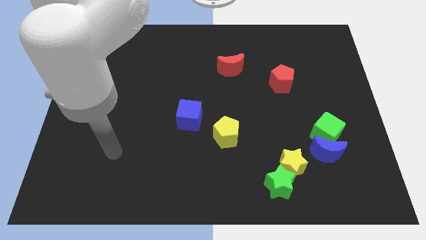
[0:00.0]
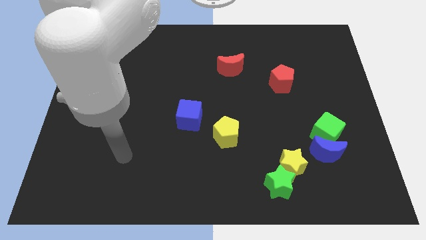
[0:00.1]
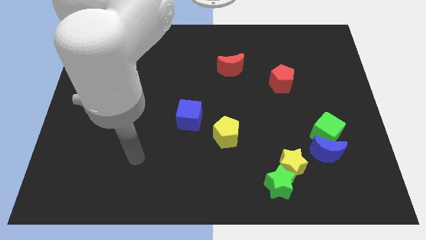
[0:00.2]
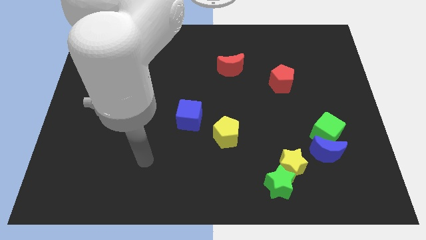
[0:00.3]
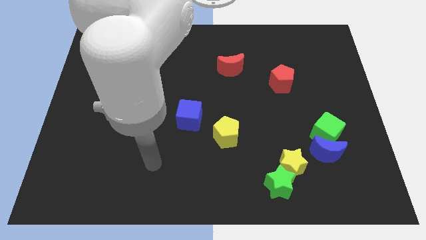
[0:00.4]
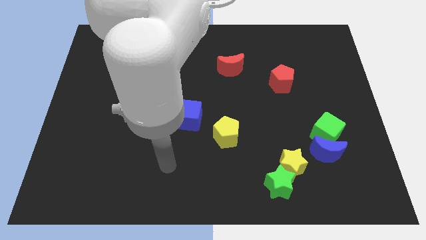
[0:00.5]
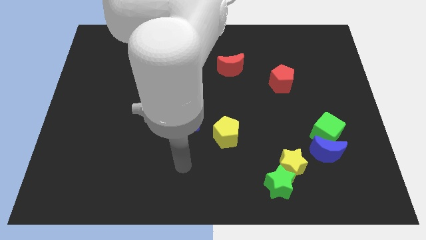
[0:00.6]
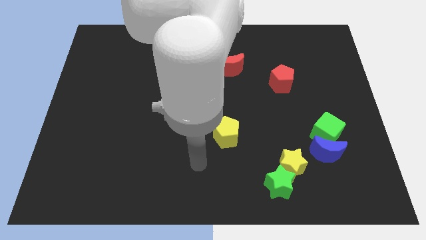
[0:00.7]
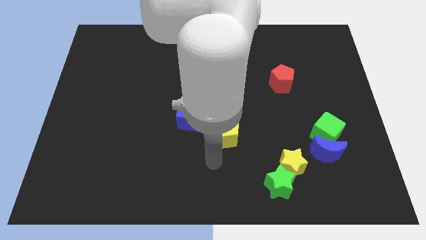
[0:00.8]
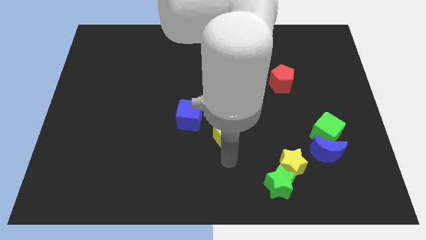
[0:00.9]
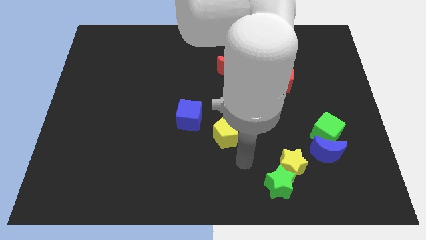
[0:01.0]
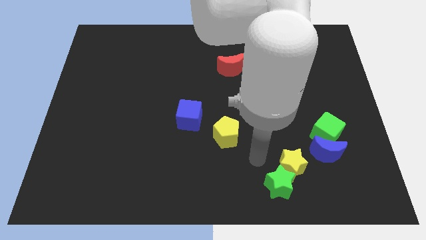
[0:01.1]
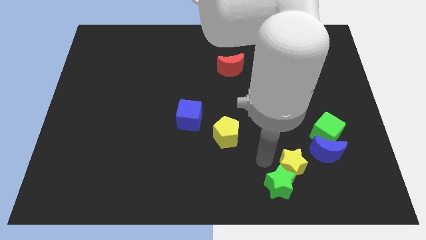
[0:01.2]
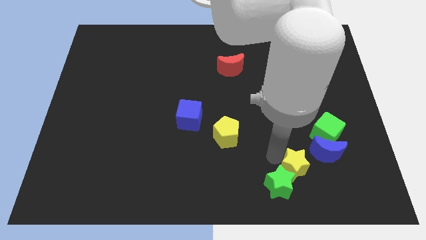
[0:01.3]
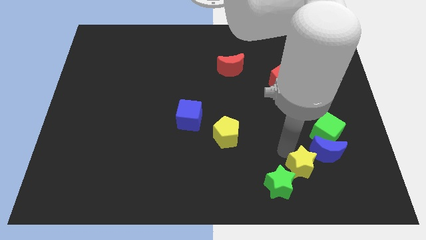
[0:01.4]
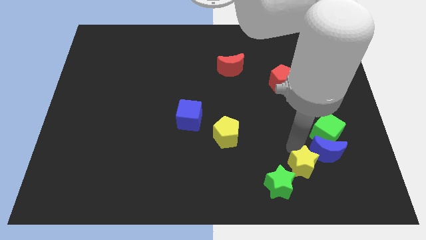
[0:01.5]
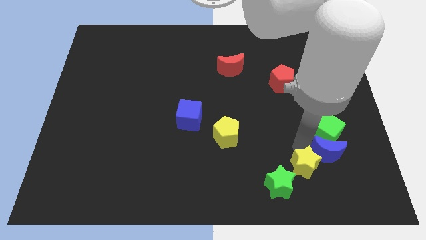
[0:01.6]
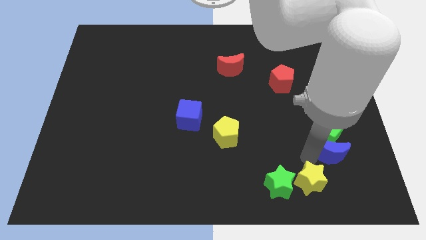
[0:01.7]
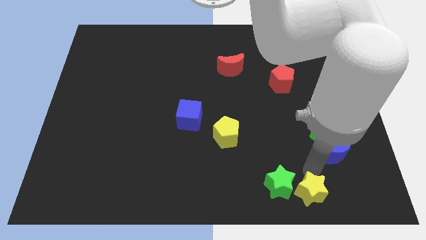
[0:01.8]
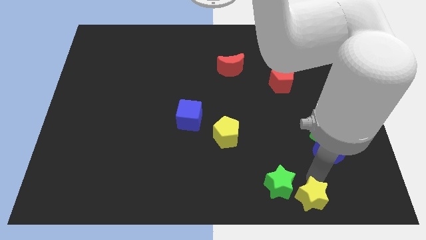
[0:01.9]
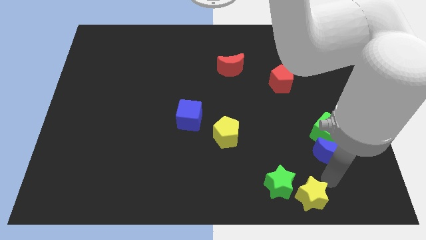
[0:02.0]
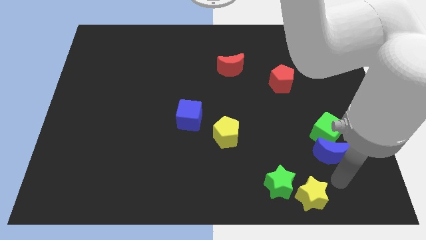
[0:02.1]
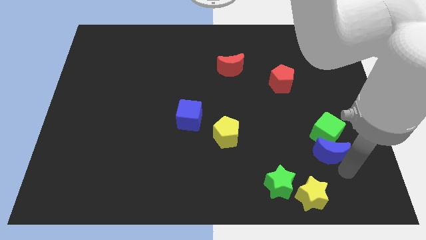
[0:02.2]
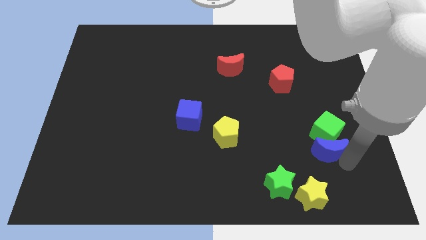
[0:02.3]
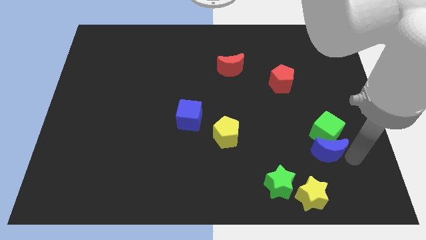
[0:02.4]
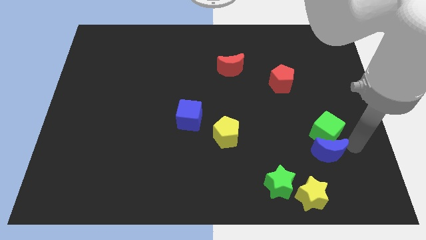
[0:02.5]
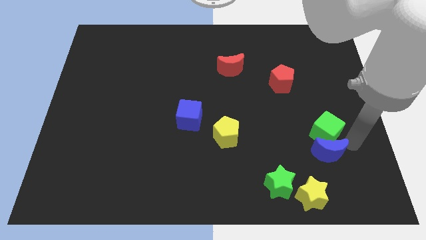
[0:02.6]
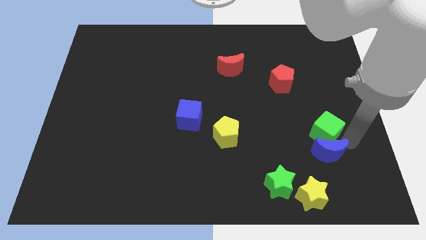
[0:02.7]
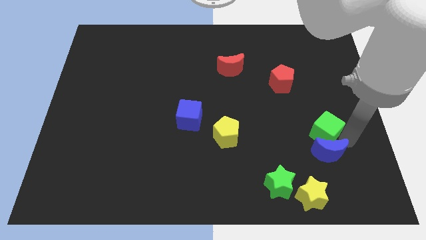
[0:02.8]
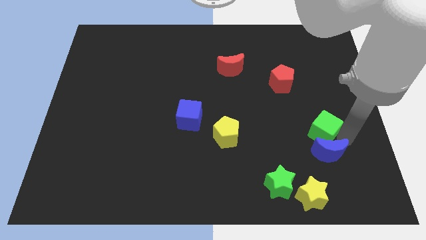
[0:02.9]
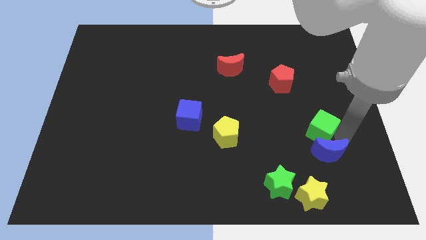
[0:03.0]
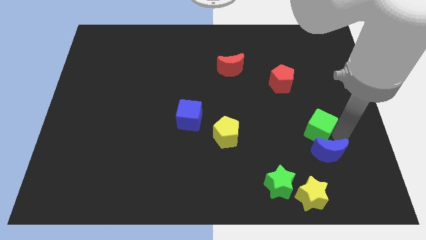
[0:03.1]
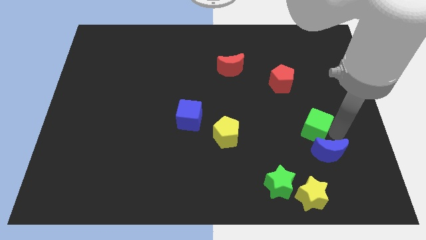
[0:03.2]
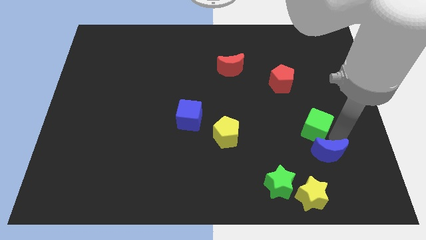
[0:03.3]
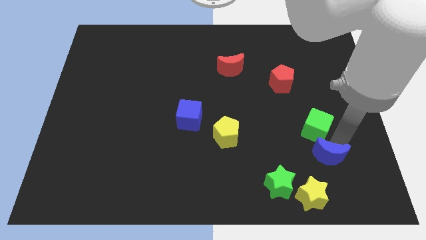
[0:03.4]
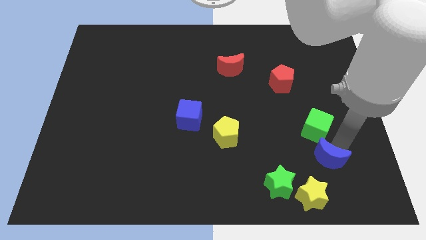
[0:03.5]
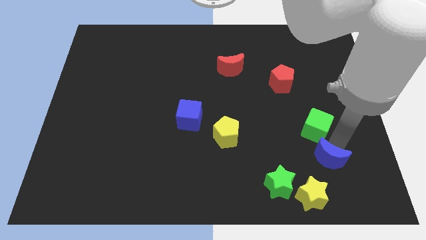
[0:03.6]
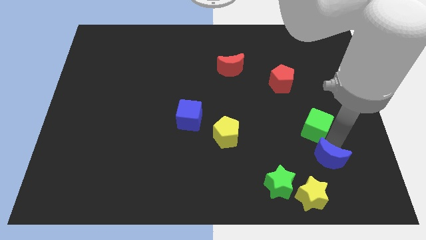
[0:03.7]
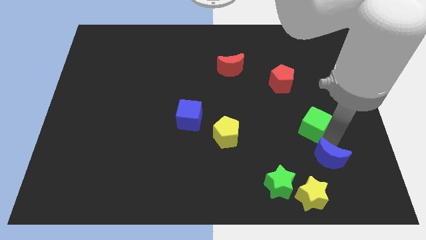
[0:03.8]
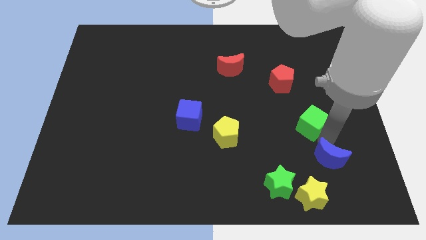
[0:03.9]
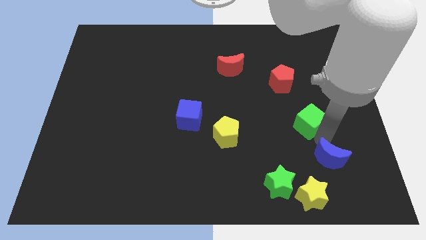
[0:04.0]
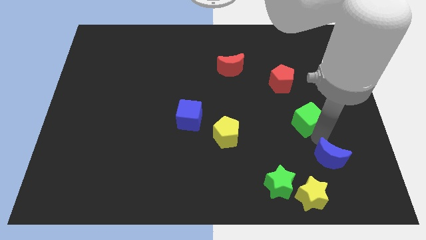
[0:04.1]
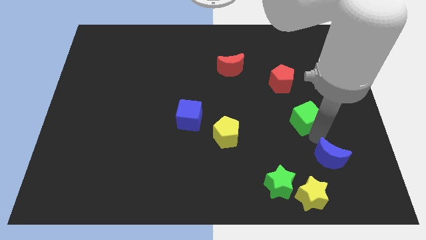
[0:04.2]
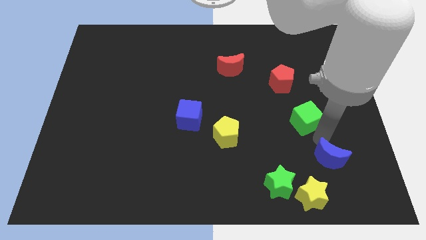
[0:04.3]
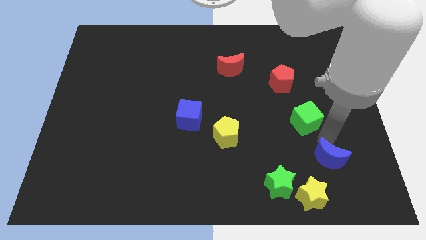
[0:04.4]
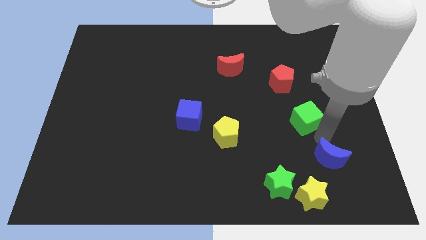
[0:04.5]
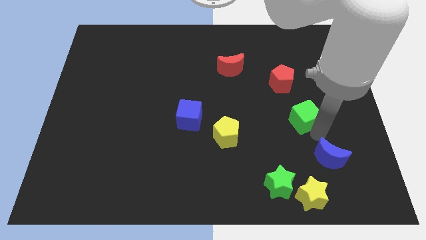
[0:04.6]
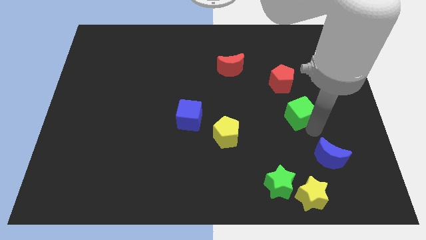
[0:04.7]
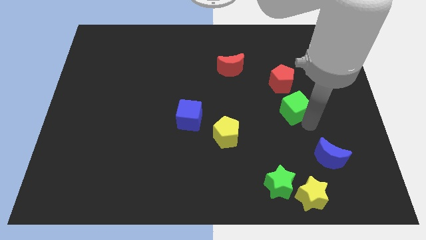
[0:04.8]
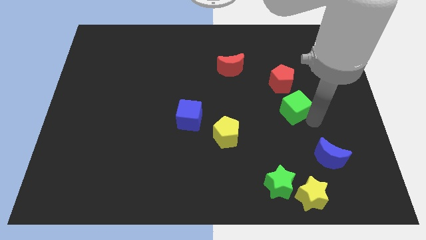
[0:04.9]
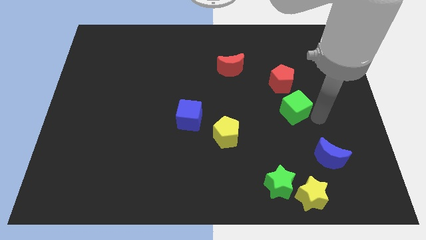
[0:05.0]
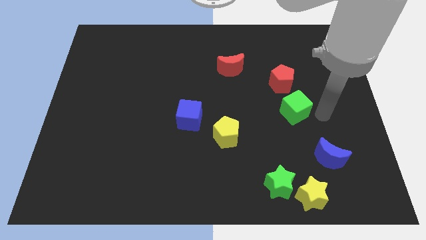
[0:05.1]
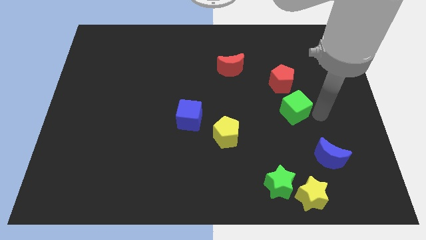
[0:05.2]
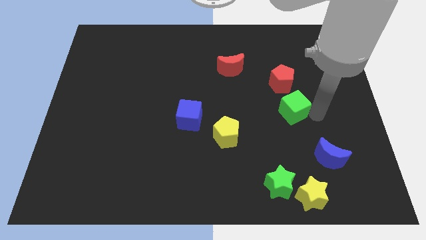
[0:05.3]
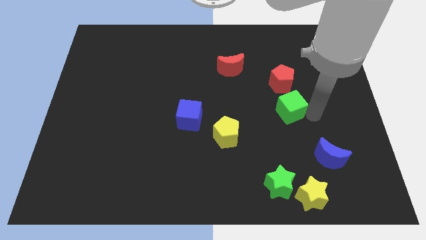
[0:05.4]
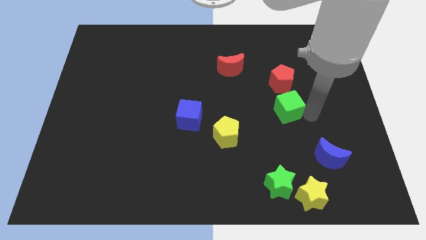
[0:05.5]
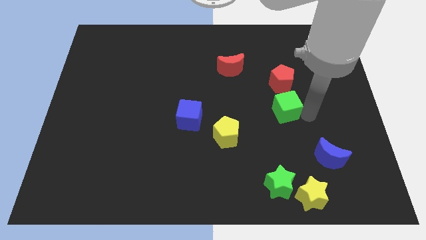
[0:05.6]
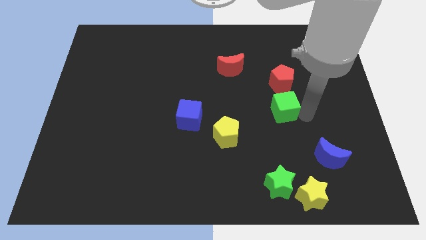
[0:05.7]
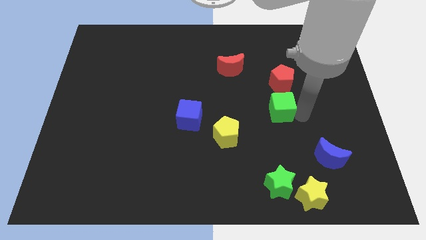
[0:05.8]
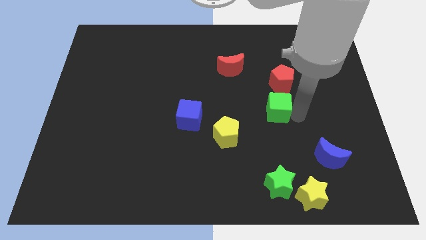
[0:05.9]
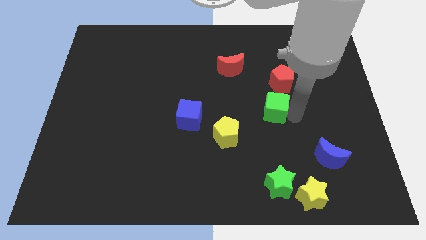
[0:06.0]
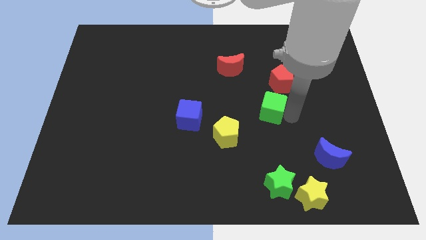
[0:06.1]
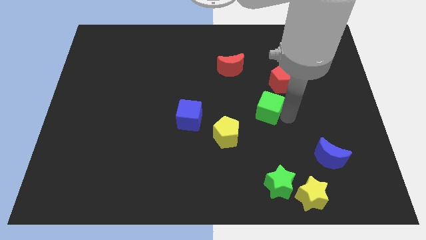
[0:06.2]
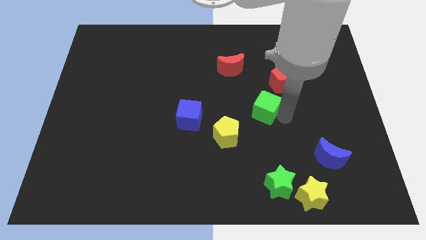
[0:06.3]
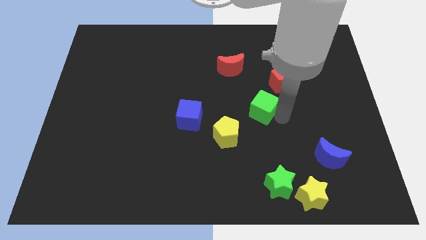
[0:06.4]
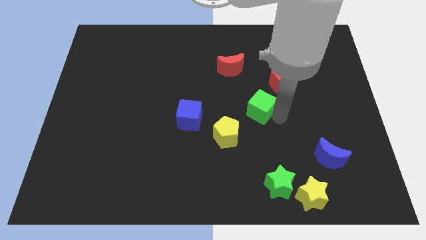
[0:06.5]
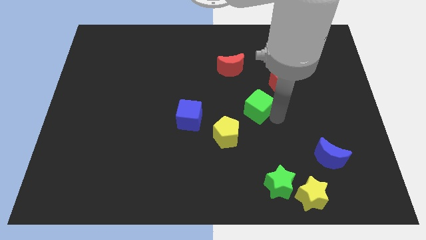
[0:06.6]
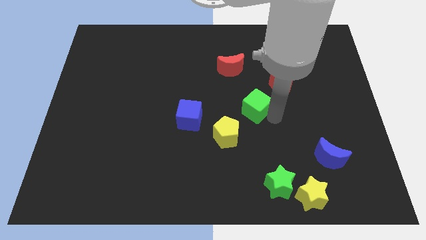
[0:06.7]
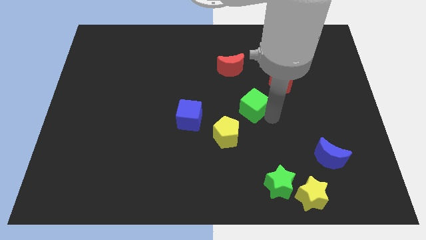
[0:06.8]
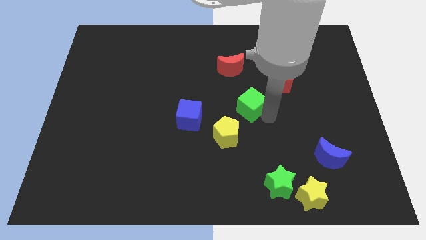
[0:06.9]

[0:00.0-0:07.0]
move the green cube below the red moon
